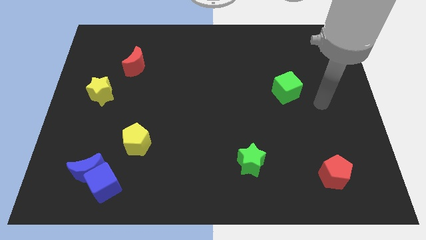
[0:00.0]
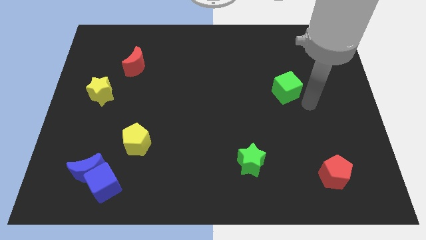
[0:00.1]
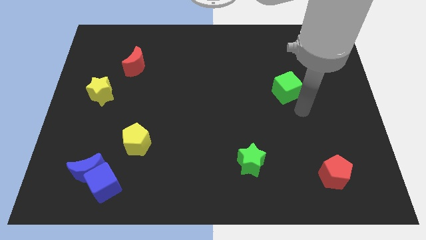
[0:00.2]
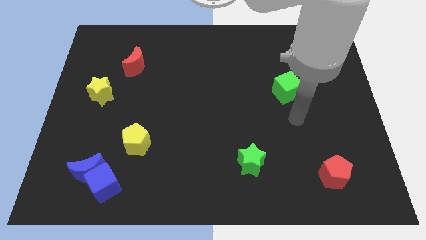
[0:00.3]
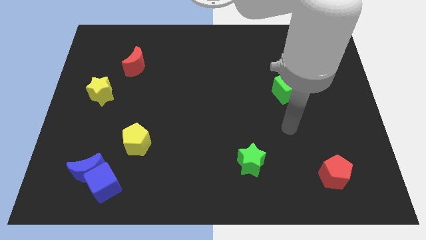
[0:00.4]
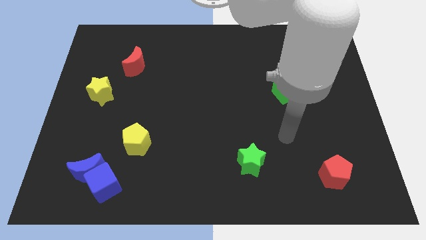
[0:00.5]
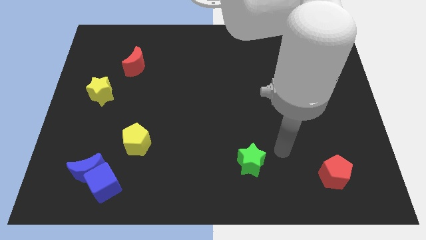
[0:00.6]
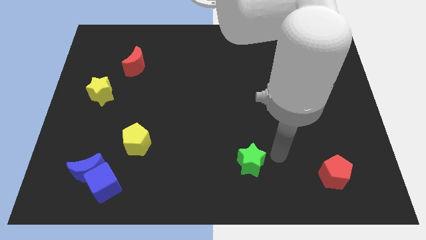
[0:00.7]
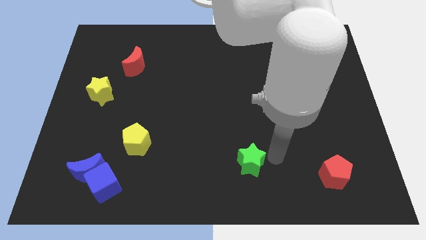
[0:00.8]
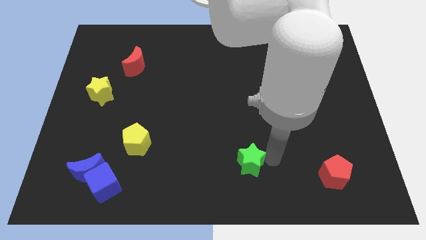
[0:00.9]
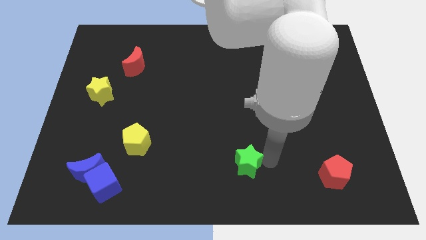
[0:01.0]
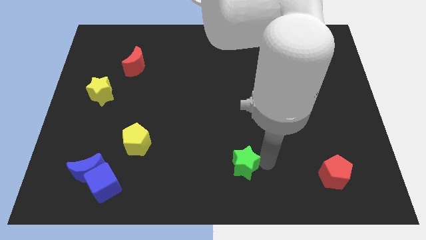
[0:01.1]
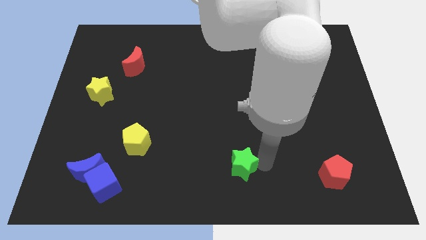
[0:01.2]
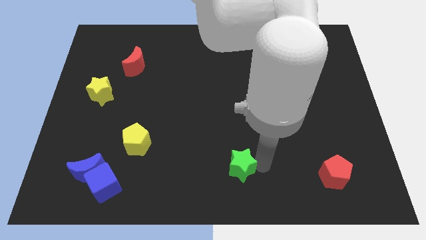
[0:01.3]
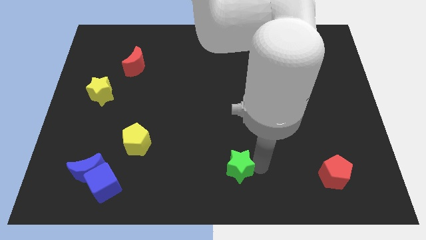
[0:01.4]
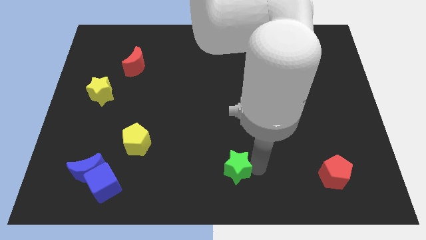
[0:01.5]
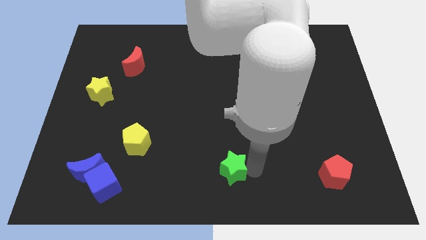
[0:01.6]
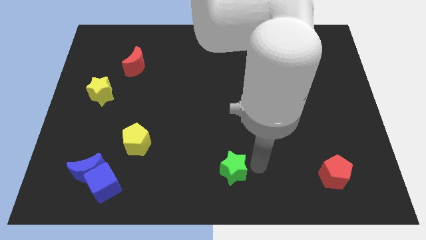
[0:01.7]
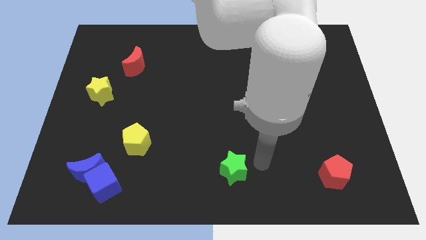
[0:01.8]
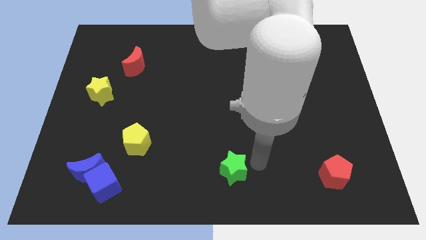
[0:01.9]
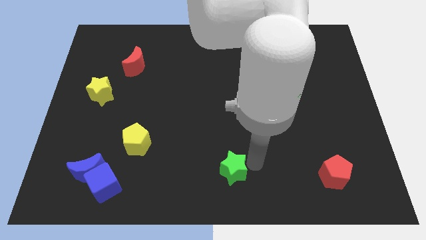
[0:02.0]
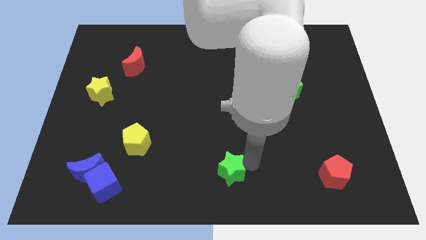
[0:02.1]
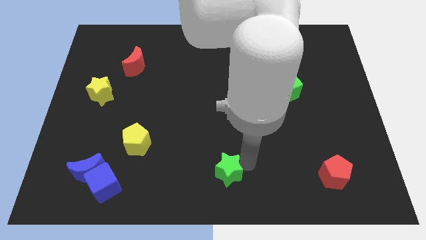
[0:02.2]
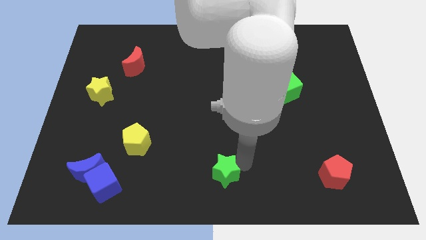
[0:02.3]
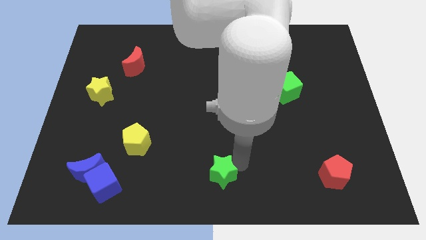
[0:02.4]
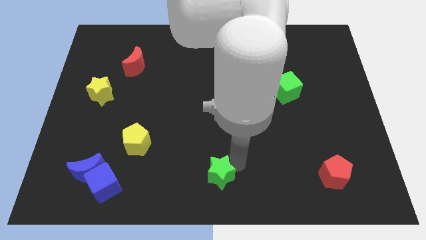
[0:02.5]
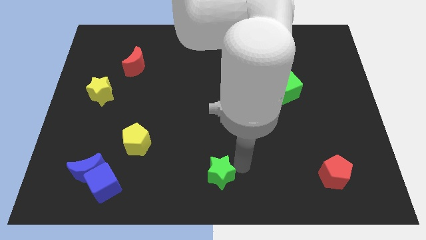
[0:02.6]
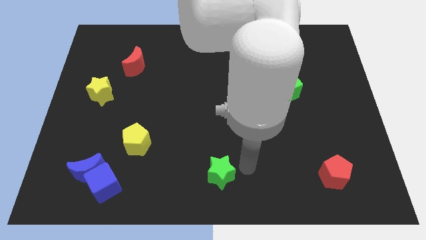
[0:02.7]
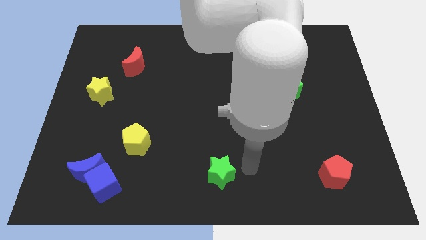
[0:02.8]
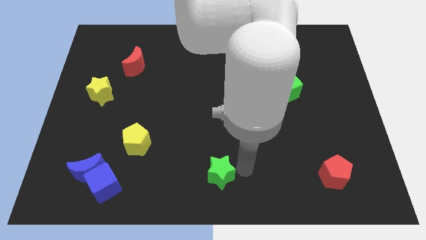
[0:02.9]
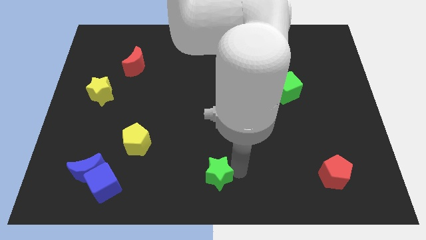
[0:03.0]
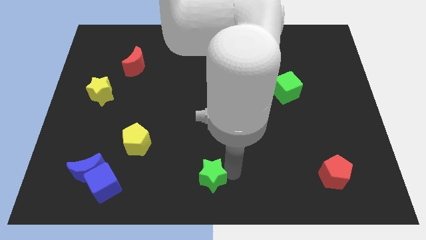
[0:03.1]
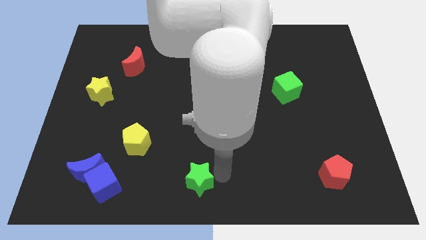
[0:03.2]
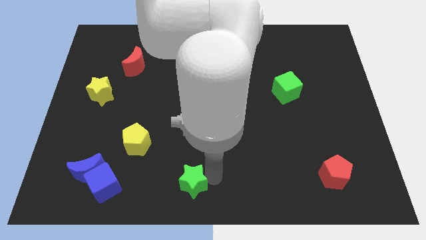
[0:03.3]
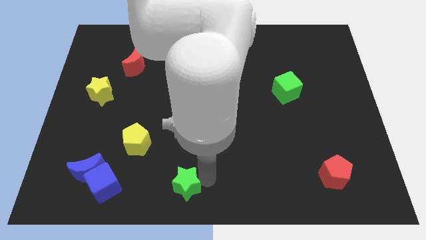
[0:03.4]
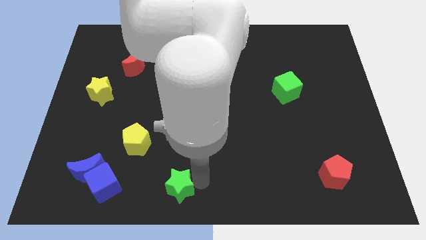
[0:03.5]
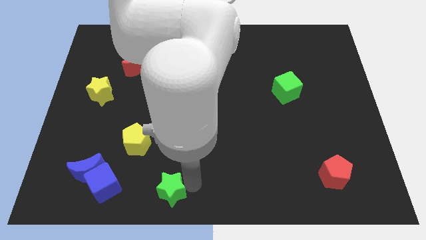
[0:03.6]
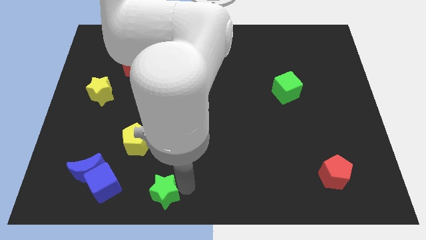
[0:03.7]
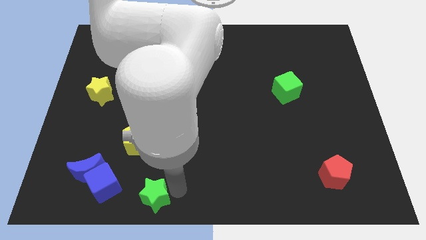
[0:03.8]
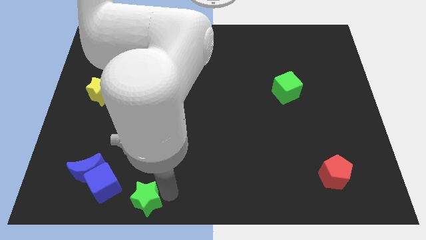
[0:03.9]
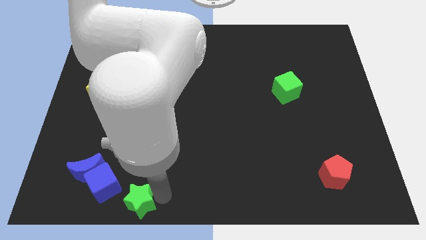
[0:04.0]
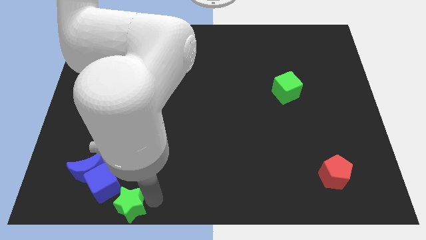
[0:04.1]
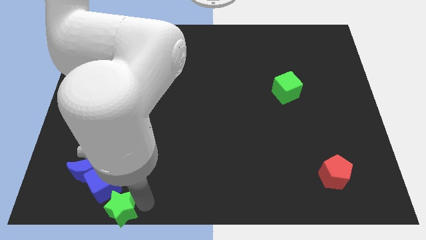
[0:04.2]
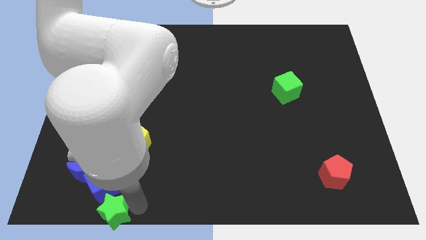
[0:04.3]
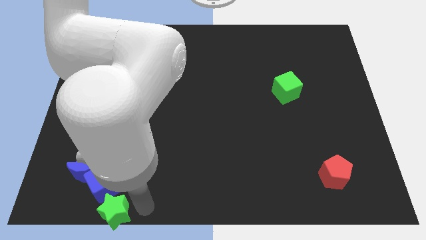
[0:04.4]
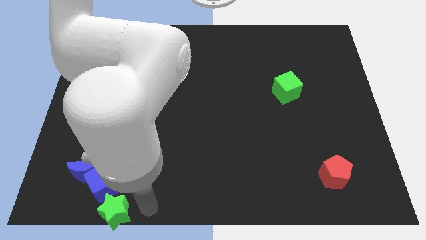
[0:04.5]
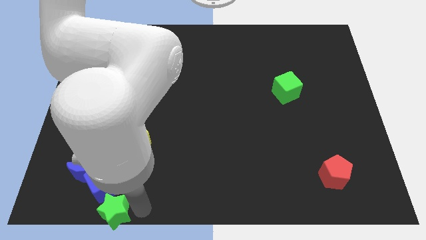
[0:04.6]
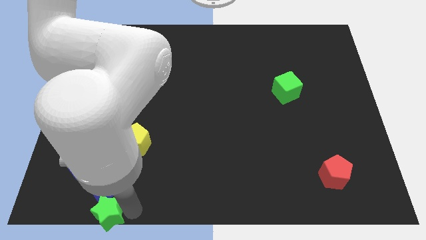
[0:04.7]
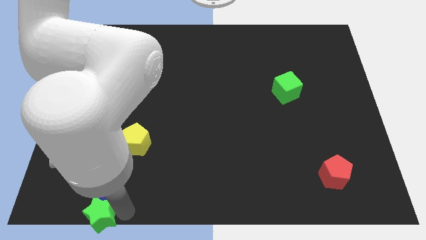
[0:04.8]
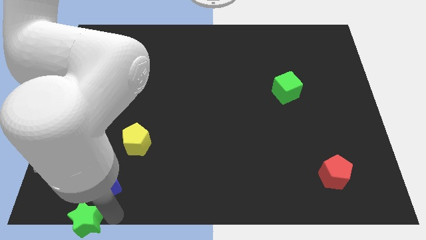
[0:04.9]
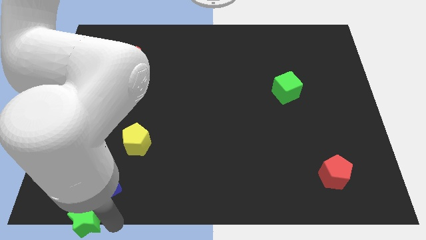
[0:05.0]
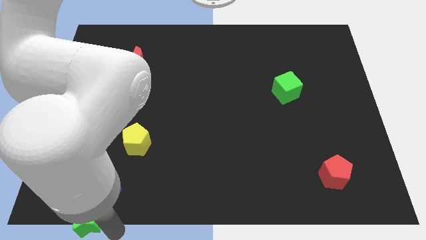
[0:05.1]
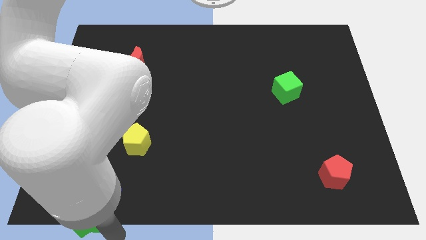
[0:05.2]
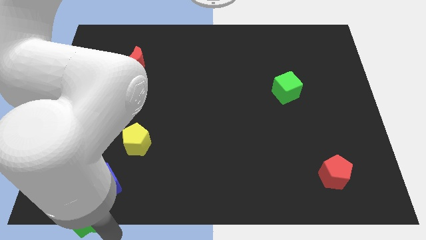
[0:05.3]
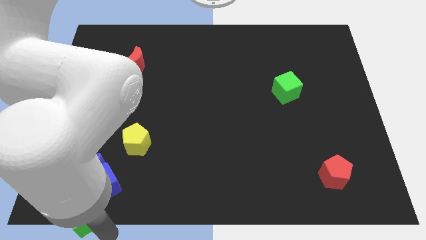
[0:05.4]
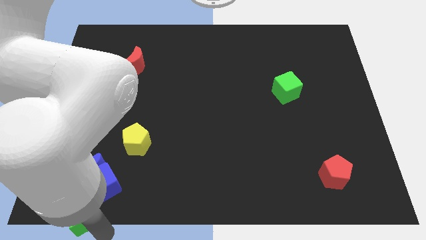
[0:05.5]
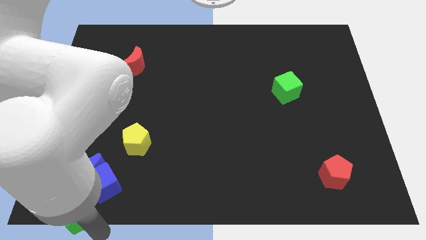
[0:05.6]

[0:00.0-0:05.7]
put the green star to the lower left corner

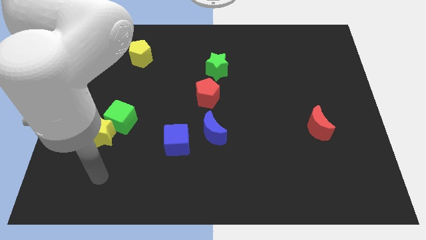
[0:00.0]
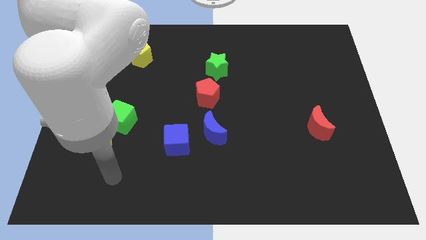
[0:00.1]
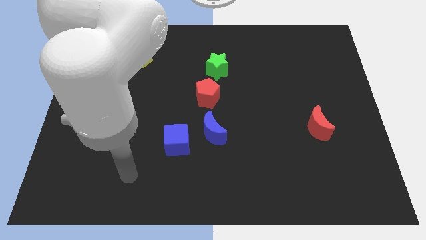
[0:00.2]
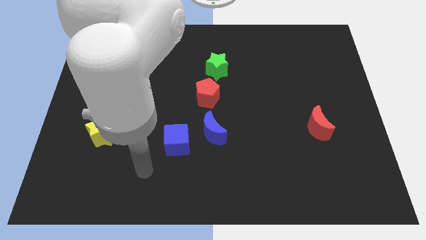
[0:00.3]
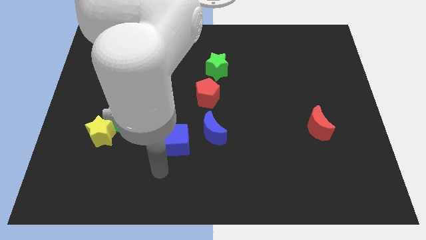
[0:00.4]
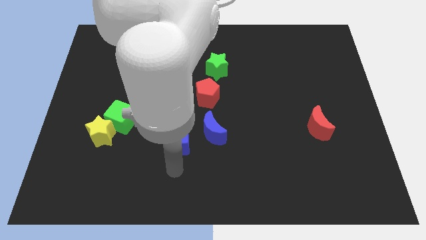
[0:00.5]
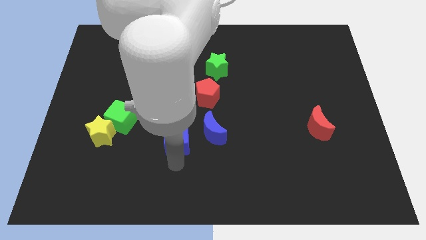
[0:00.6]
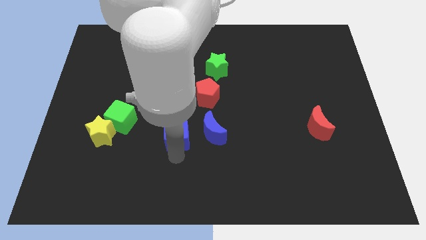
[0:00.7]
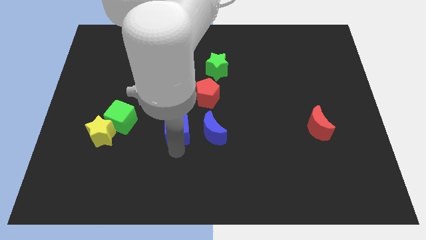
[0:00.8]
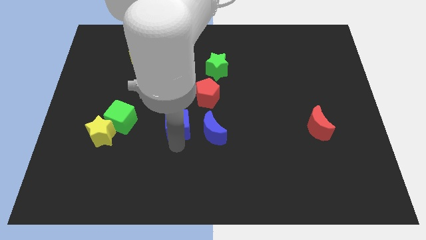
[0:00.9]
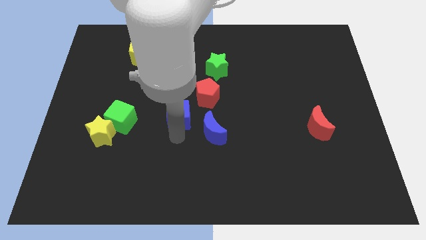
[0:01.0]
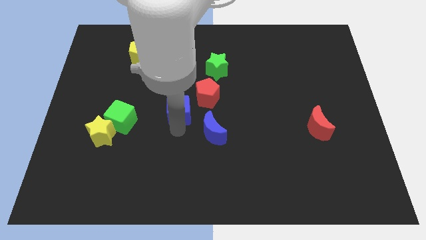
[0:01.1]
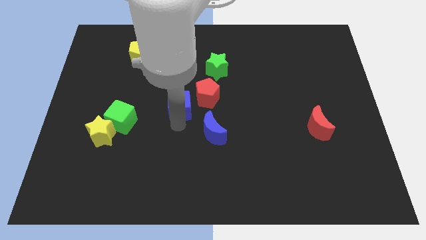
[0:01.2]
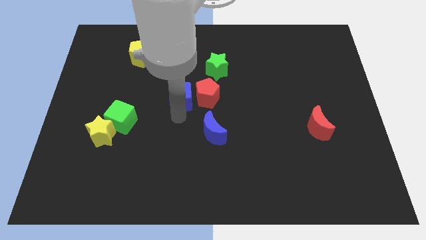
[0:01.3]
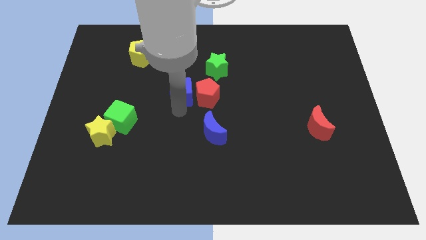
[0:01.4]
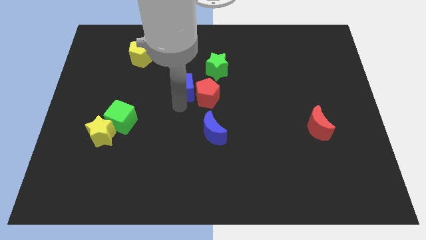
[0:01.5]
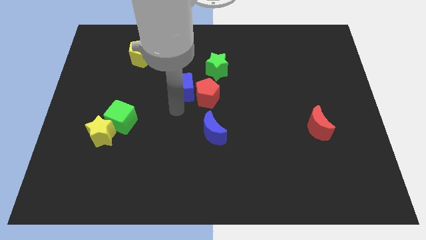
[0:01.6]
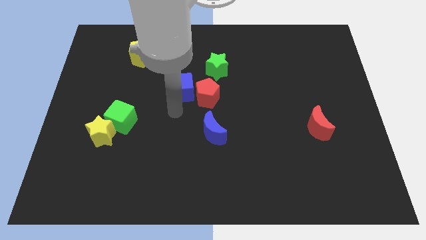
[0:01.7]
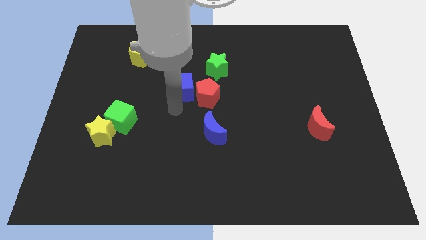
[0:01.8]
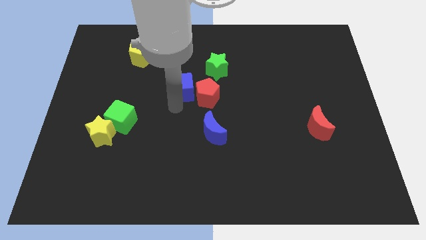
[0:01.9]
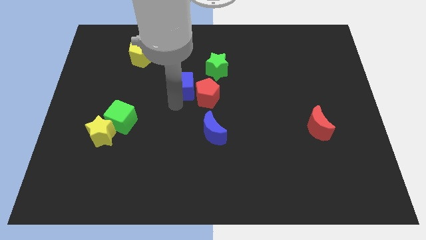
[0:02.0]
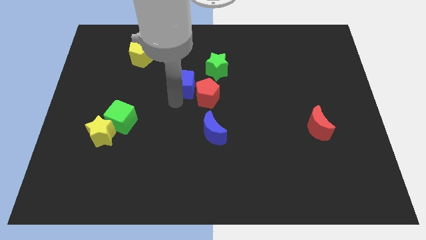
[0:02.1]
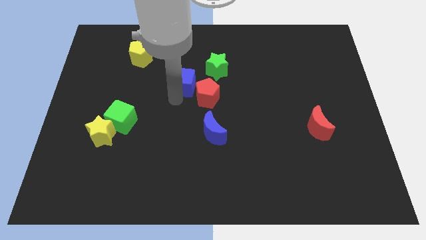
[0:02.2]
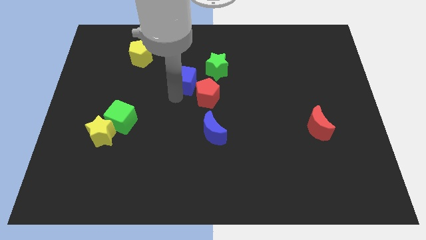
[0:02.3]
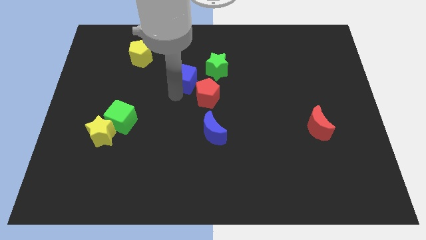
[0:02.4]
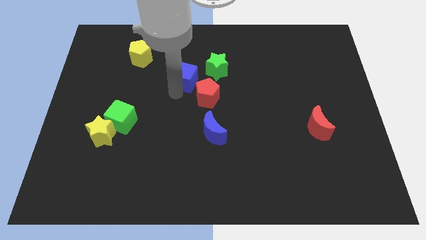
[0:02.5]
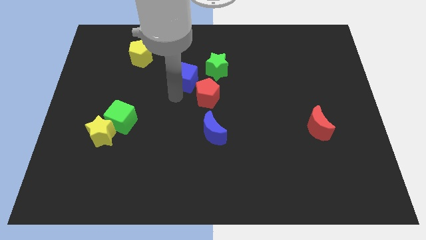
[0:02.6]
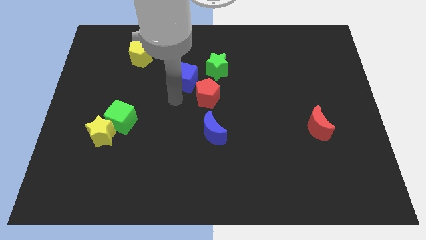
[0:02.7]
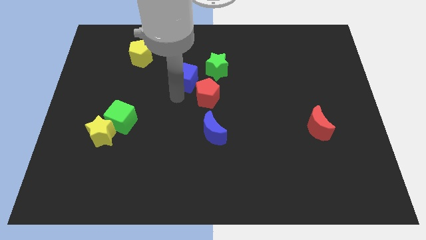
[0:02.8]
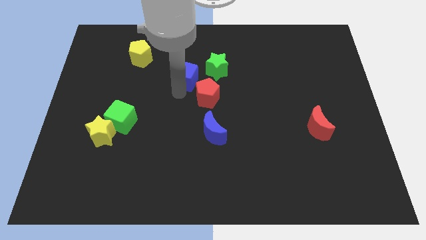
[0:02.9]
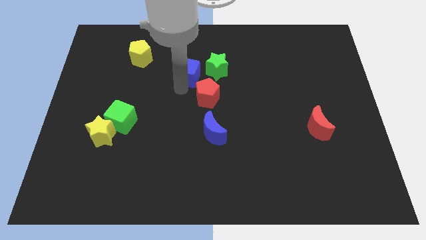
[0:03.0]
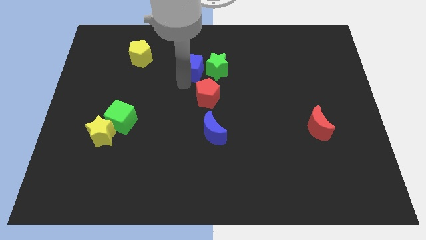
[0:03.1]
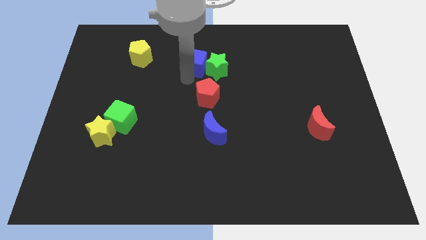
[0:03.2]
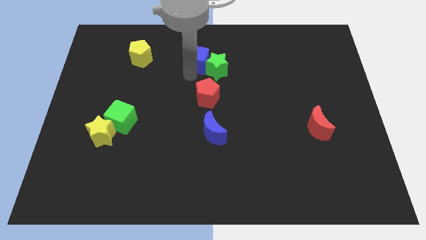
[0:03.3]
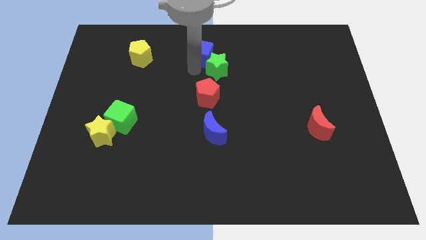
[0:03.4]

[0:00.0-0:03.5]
move the blue cube to the towards your base
